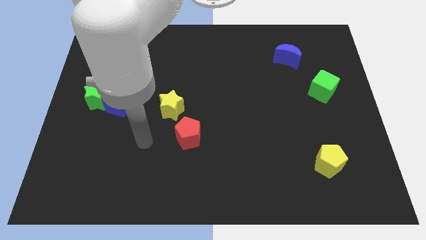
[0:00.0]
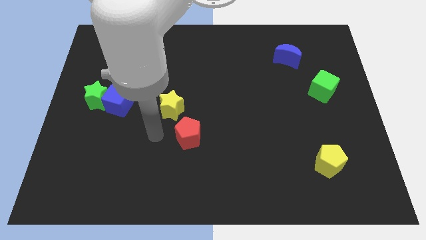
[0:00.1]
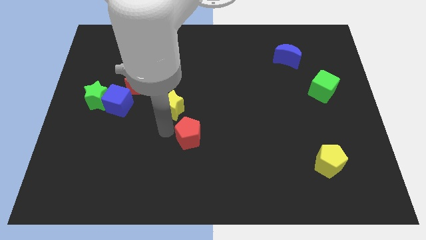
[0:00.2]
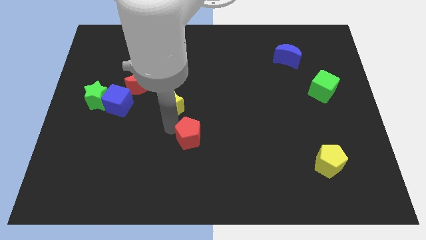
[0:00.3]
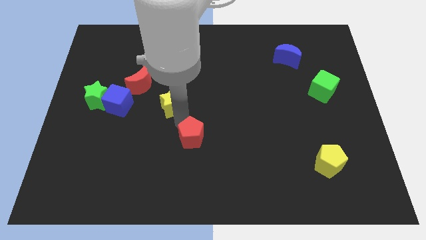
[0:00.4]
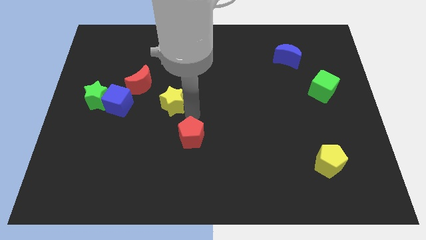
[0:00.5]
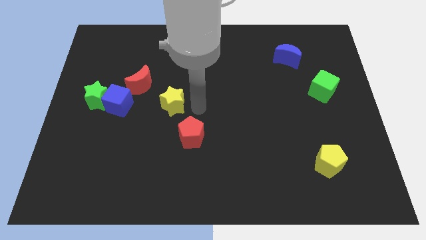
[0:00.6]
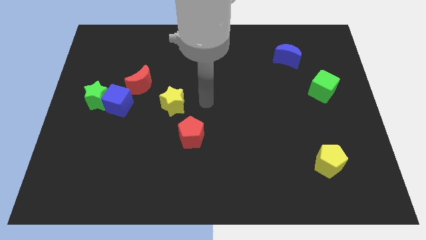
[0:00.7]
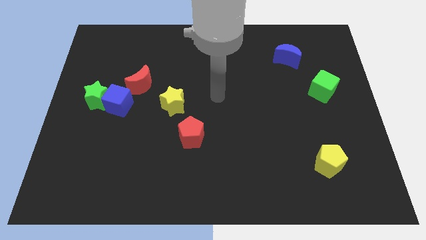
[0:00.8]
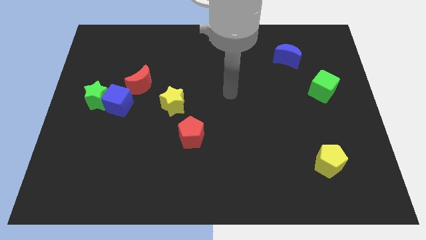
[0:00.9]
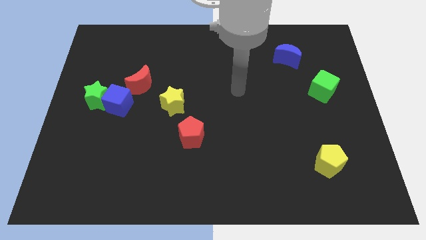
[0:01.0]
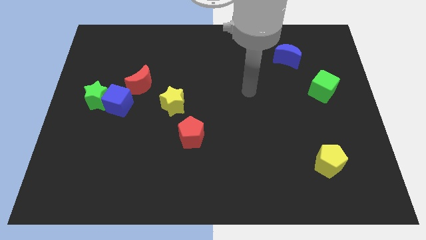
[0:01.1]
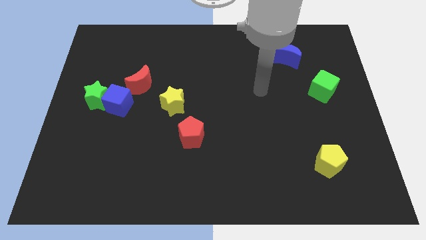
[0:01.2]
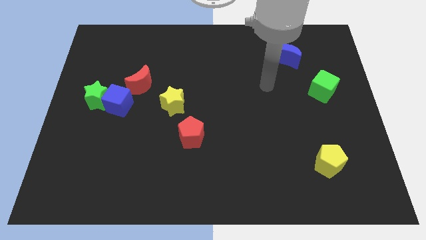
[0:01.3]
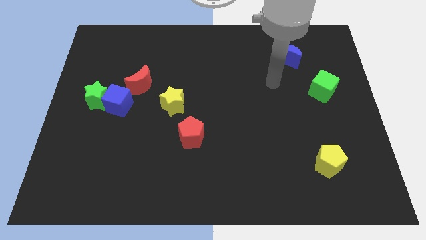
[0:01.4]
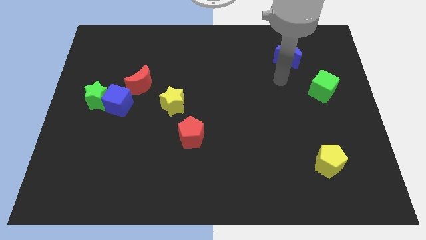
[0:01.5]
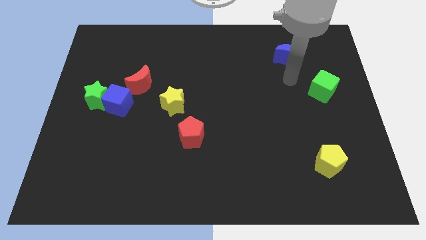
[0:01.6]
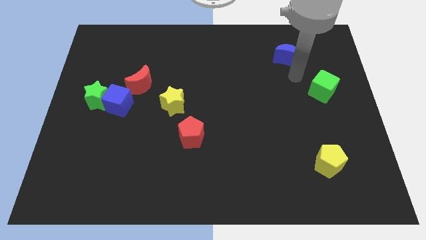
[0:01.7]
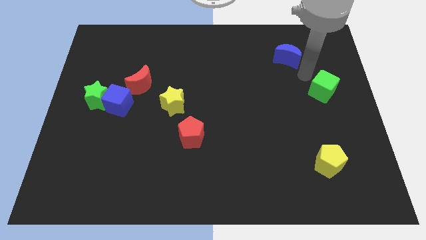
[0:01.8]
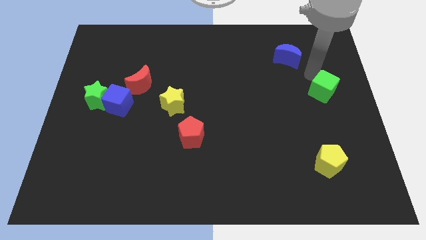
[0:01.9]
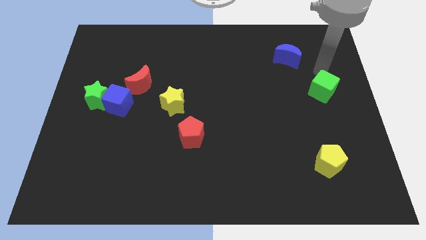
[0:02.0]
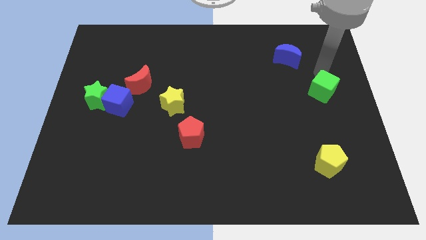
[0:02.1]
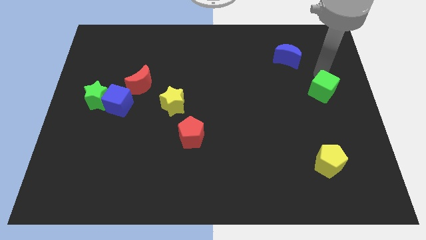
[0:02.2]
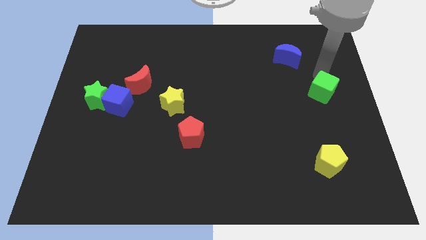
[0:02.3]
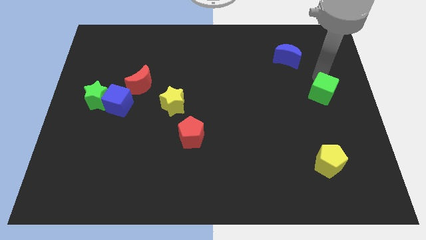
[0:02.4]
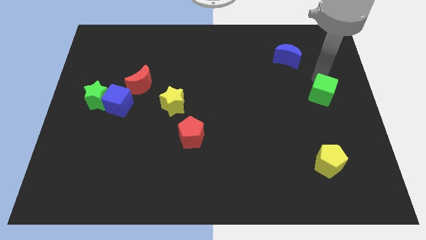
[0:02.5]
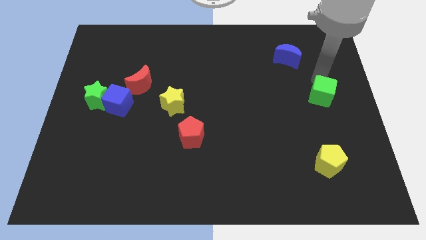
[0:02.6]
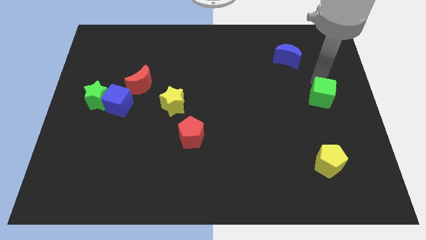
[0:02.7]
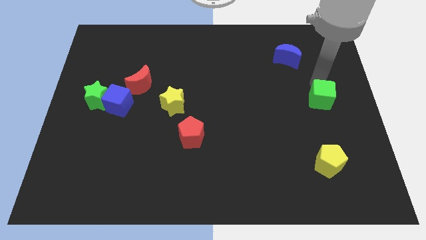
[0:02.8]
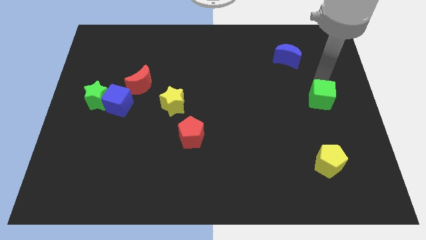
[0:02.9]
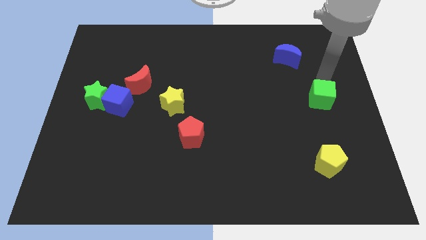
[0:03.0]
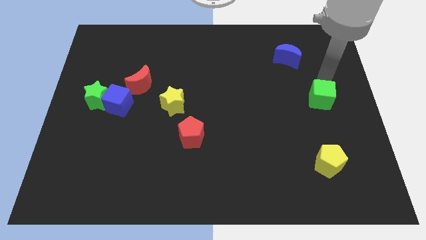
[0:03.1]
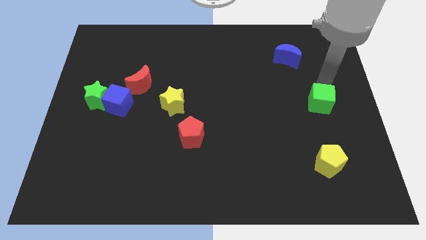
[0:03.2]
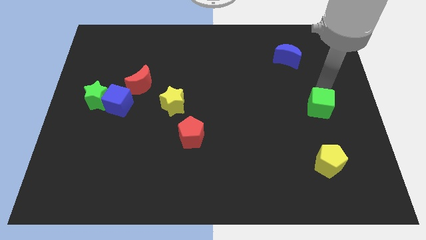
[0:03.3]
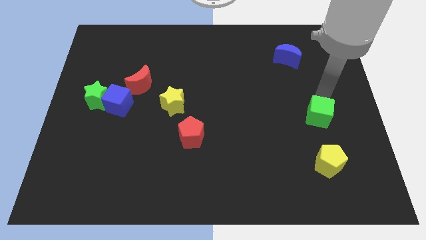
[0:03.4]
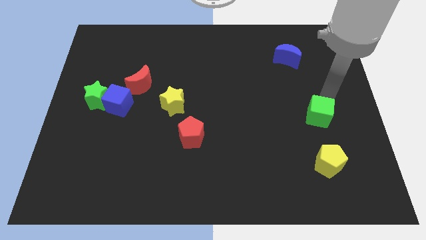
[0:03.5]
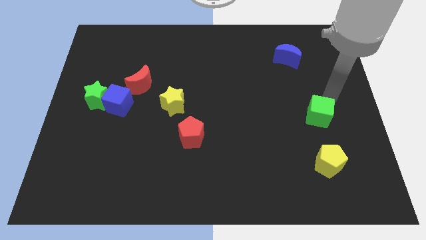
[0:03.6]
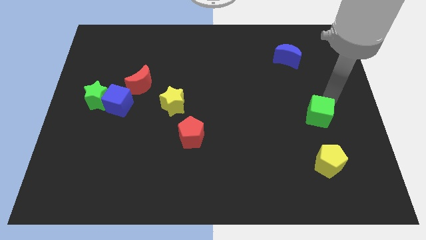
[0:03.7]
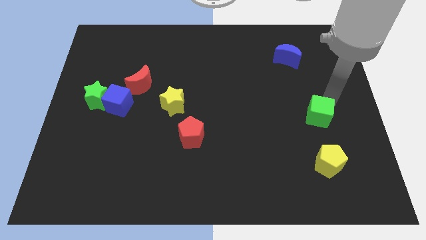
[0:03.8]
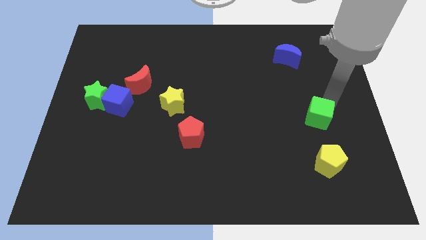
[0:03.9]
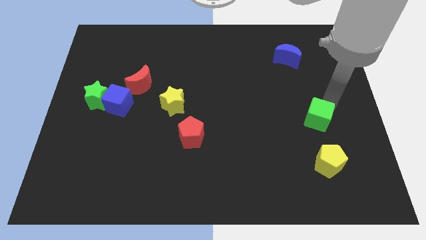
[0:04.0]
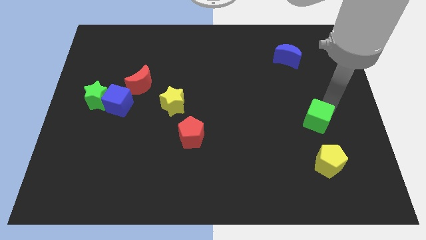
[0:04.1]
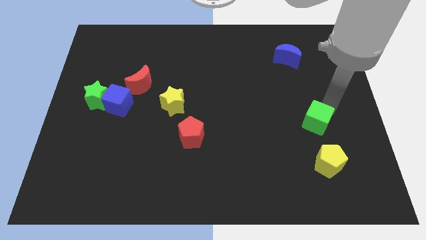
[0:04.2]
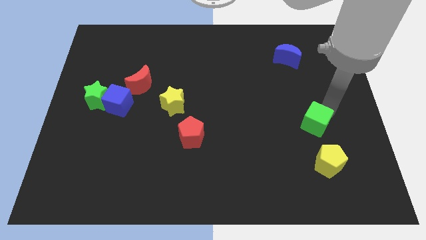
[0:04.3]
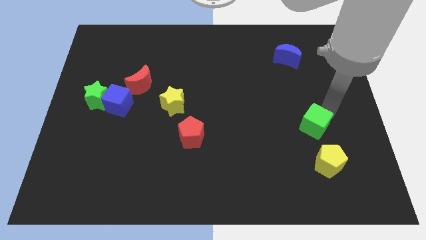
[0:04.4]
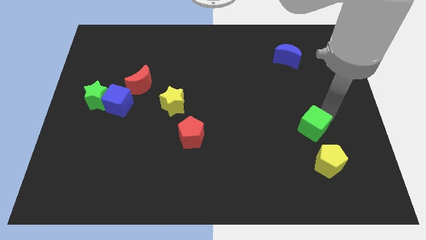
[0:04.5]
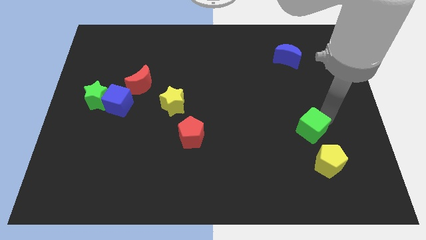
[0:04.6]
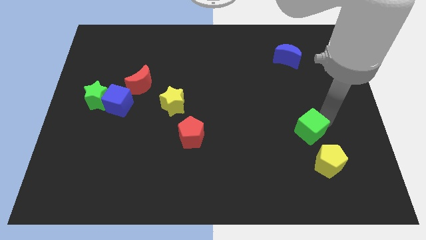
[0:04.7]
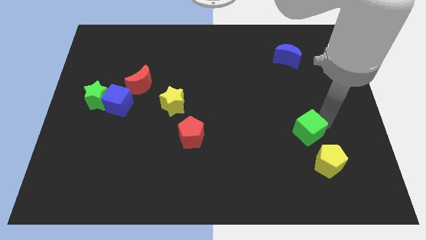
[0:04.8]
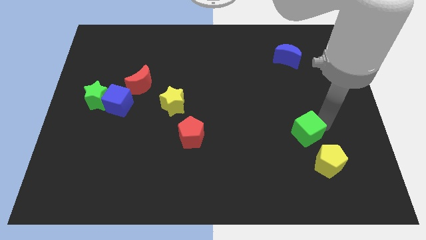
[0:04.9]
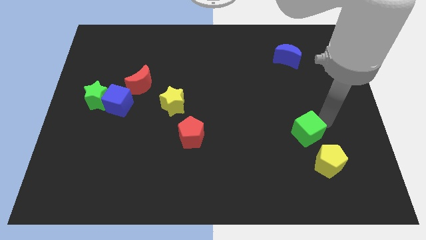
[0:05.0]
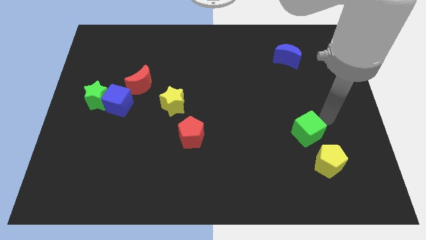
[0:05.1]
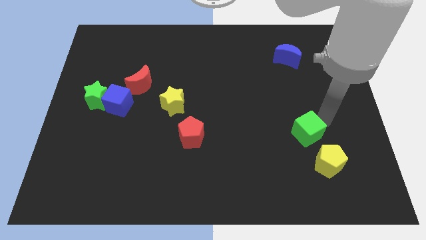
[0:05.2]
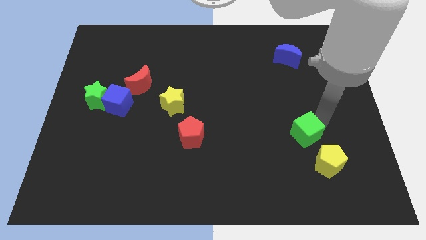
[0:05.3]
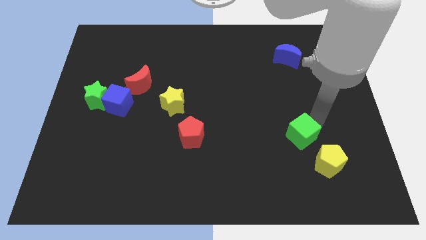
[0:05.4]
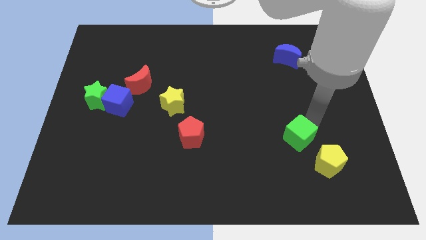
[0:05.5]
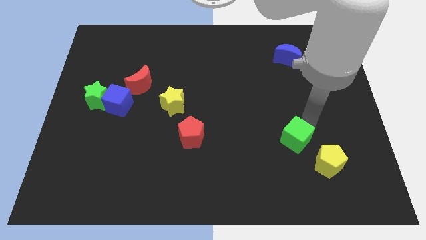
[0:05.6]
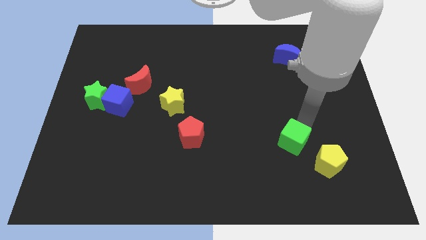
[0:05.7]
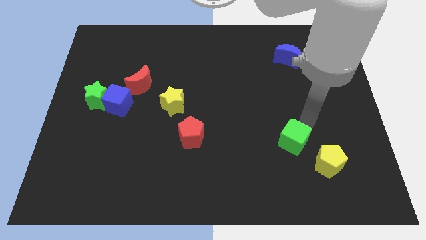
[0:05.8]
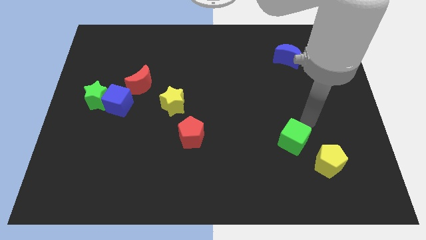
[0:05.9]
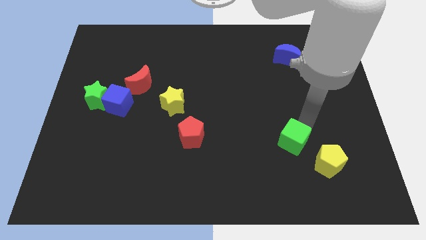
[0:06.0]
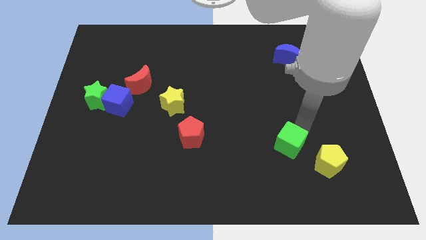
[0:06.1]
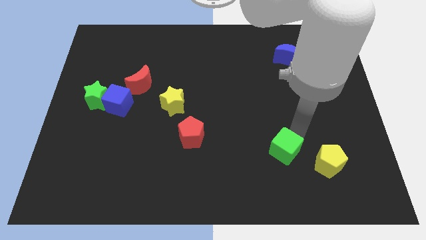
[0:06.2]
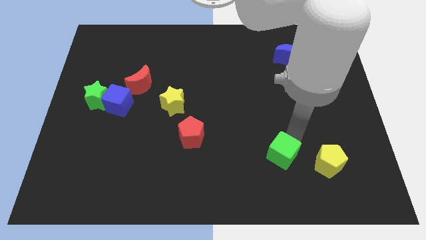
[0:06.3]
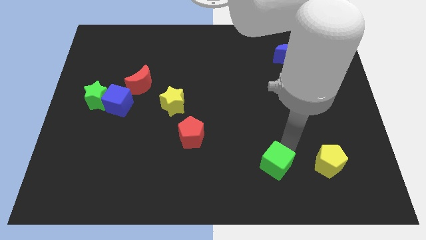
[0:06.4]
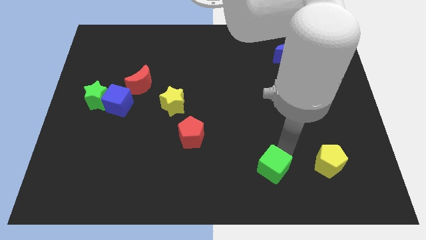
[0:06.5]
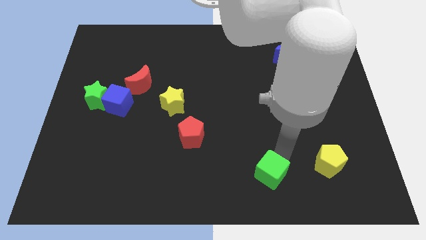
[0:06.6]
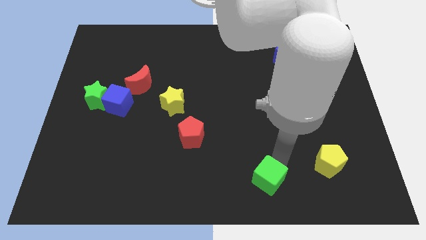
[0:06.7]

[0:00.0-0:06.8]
put the green cube to the bottom
